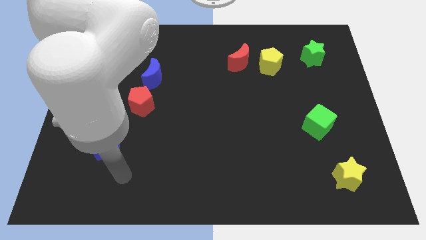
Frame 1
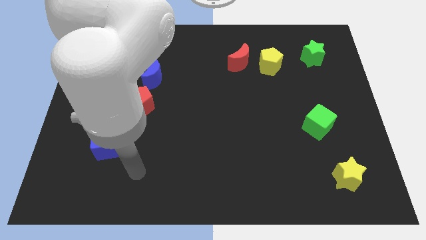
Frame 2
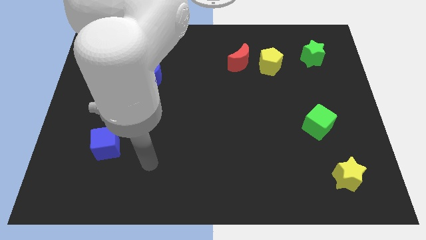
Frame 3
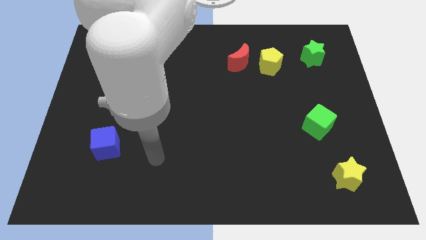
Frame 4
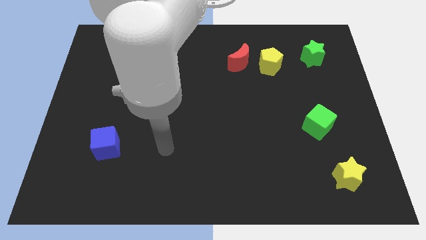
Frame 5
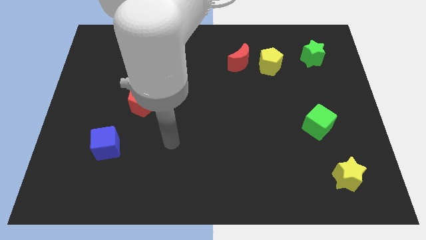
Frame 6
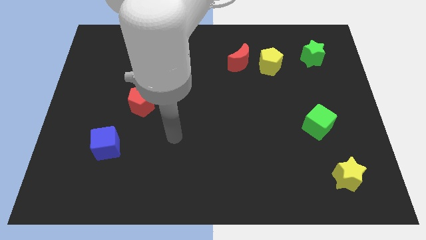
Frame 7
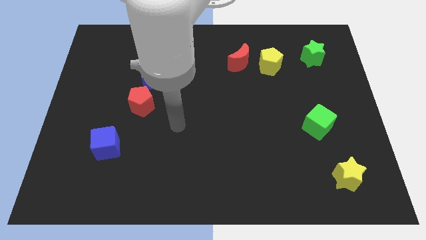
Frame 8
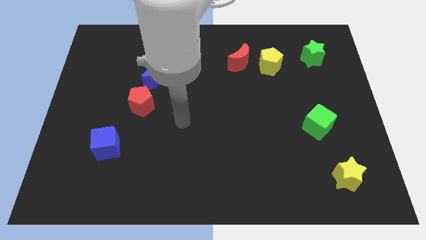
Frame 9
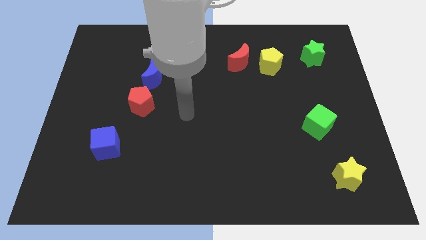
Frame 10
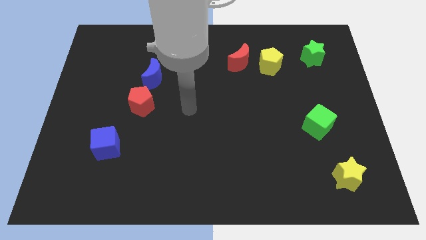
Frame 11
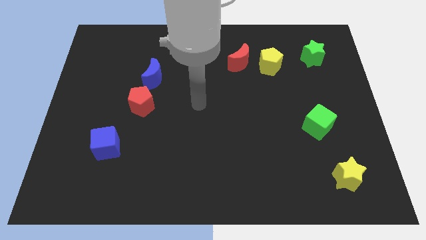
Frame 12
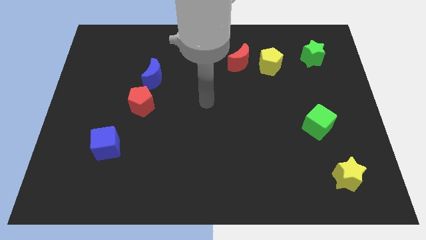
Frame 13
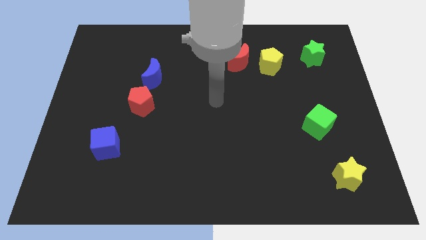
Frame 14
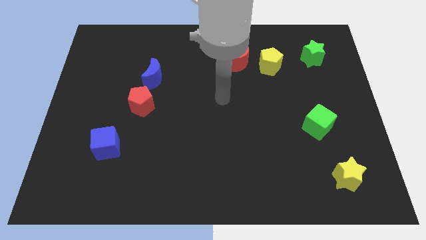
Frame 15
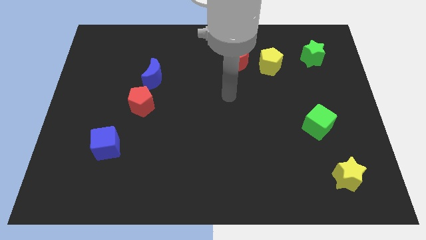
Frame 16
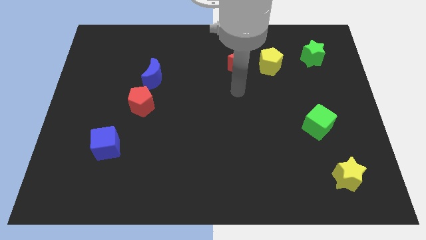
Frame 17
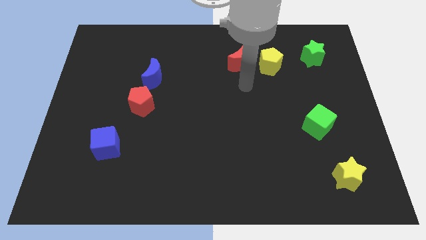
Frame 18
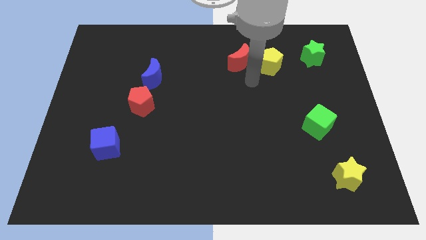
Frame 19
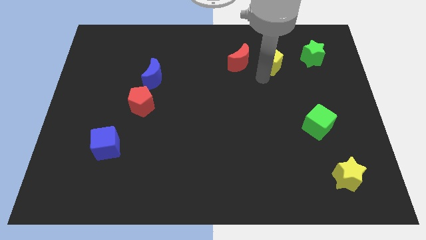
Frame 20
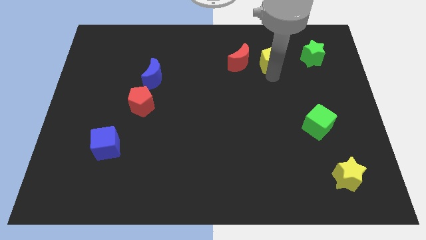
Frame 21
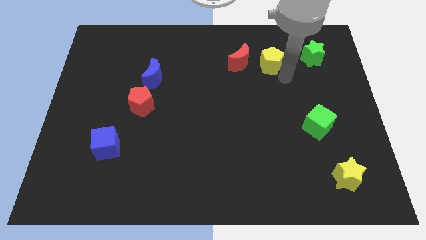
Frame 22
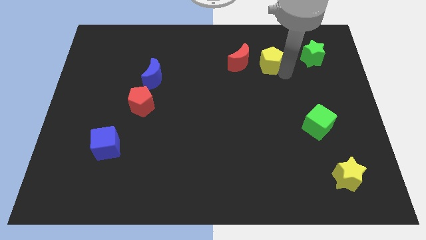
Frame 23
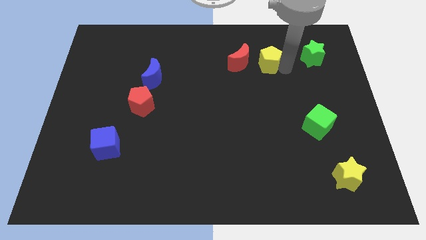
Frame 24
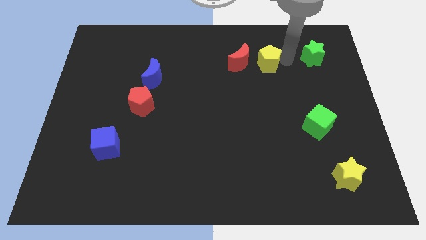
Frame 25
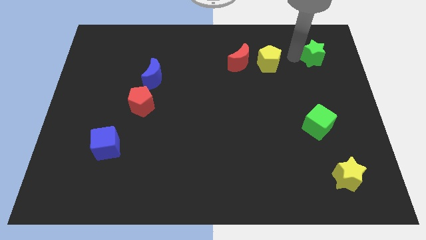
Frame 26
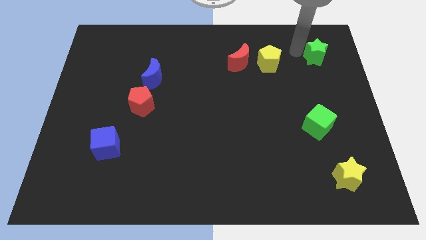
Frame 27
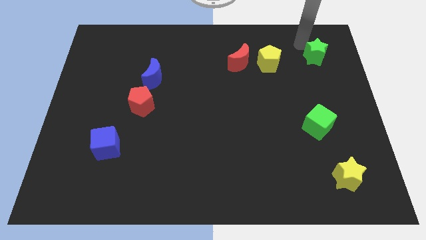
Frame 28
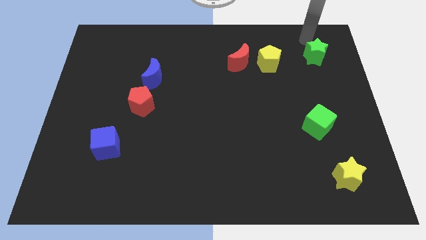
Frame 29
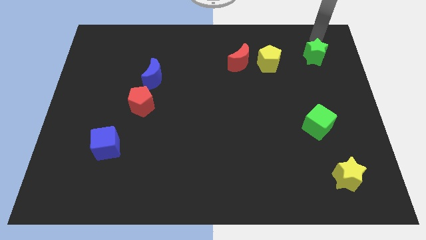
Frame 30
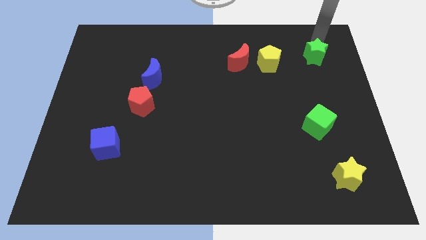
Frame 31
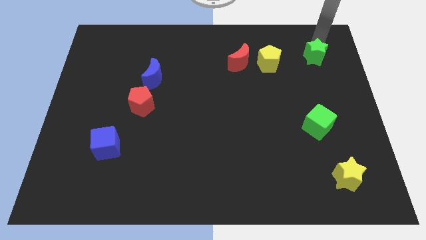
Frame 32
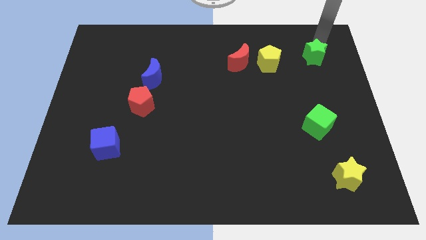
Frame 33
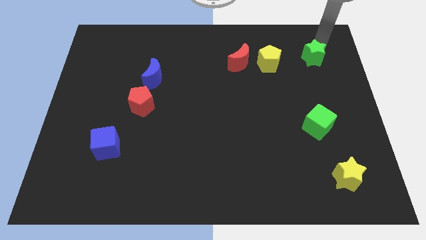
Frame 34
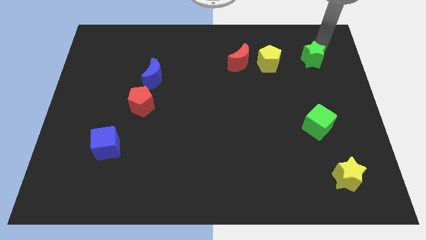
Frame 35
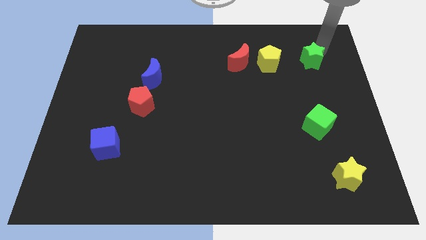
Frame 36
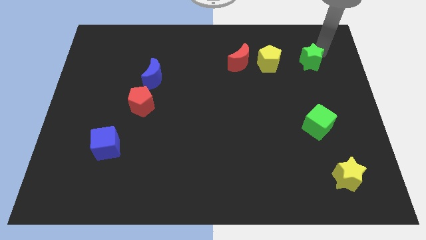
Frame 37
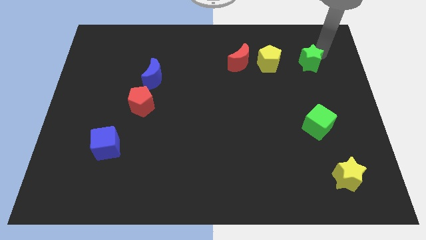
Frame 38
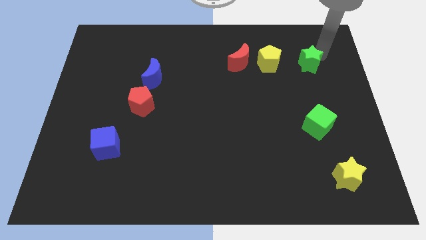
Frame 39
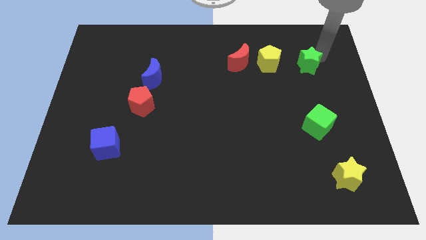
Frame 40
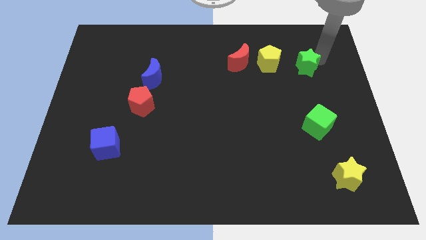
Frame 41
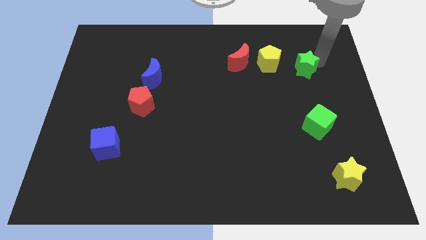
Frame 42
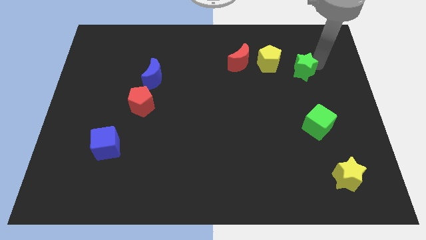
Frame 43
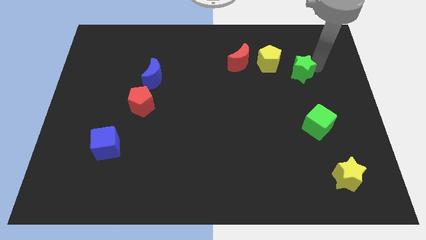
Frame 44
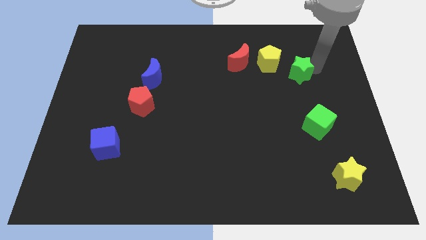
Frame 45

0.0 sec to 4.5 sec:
push the green star downwards and then left somewhat

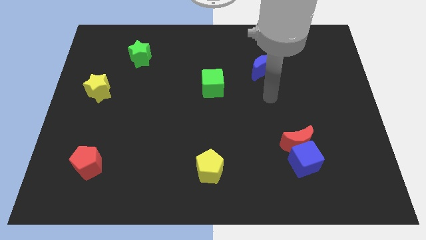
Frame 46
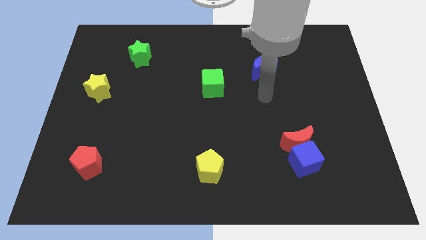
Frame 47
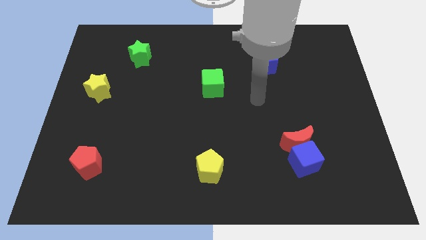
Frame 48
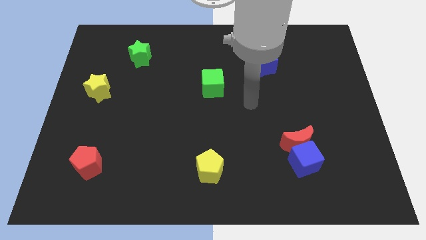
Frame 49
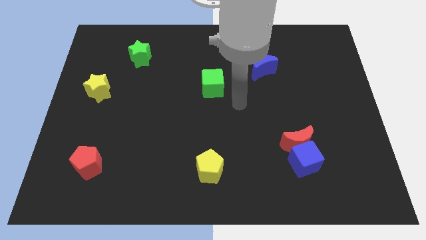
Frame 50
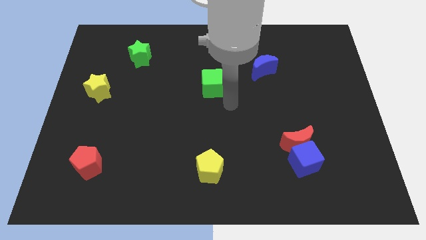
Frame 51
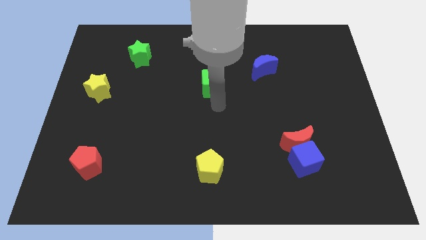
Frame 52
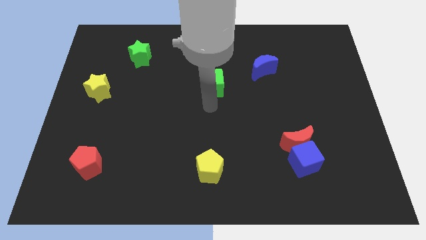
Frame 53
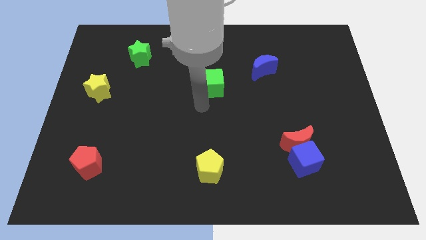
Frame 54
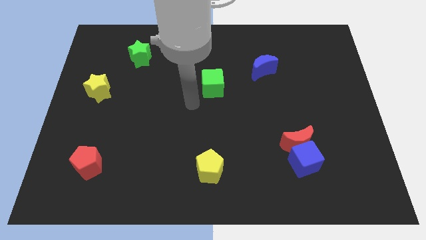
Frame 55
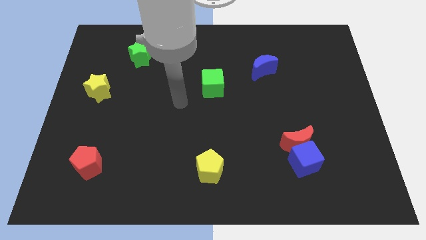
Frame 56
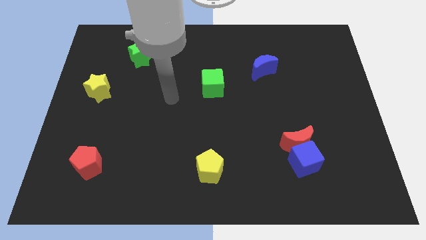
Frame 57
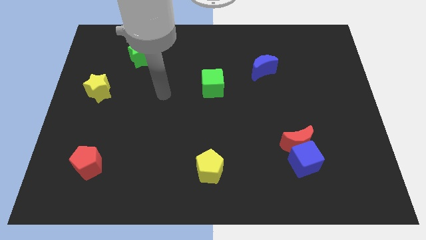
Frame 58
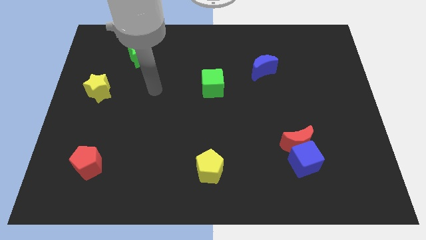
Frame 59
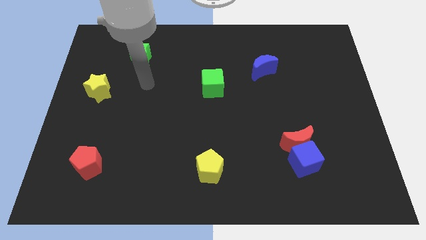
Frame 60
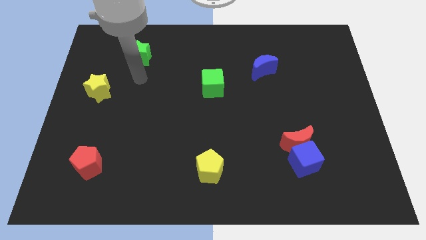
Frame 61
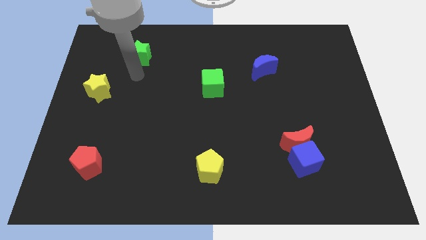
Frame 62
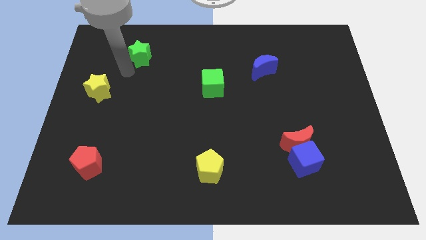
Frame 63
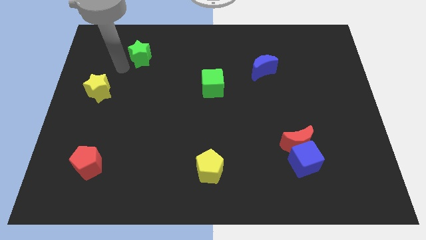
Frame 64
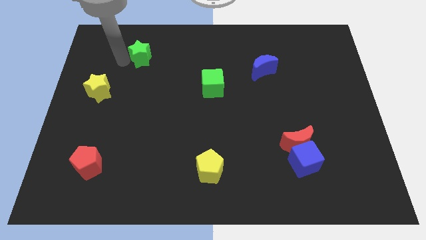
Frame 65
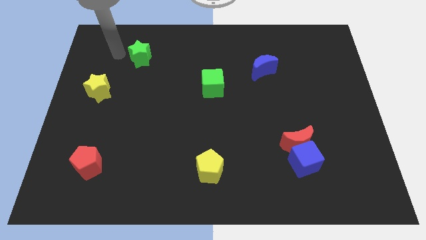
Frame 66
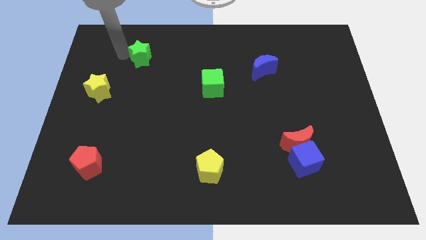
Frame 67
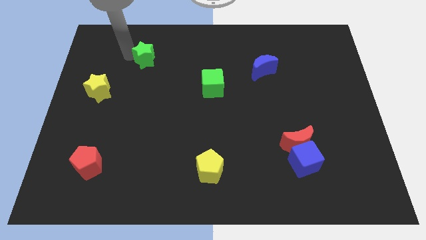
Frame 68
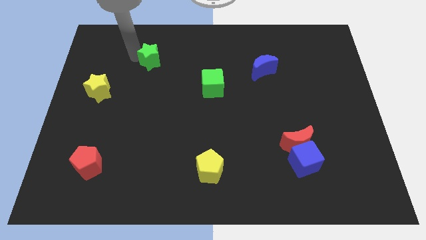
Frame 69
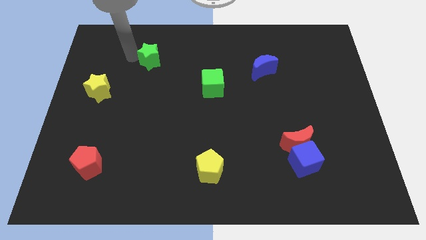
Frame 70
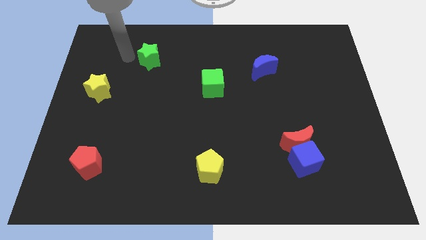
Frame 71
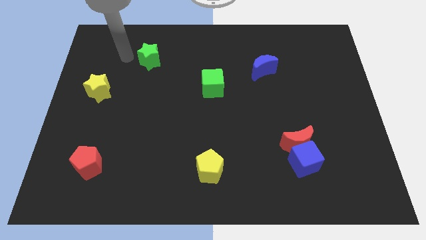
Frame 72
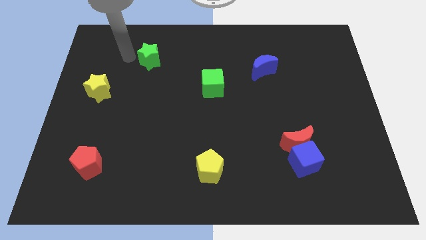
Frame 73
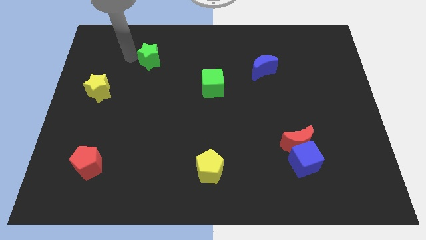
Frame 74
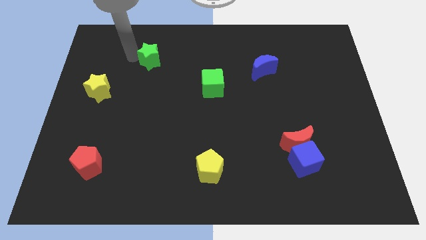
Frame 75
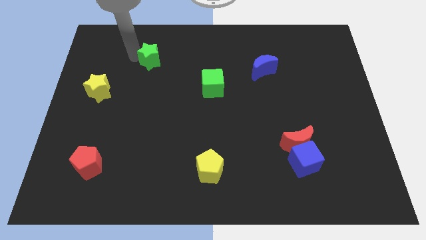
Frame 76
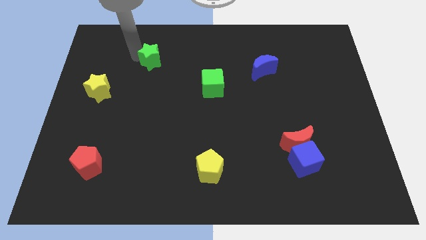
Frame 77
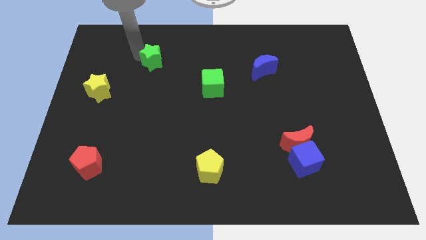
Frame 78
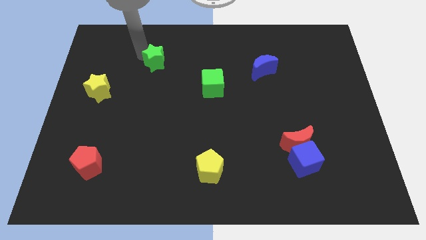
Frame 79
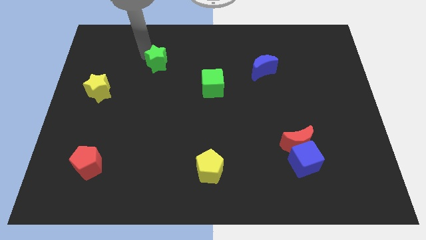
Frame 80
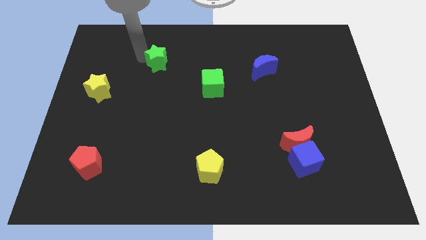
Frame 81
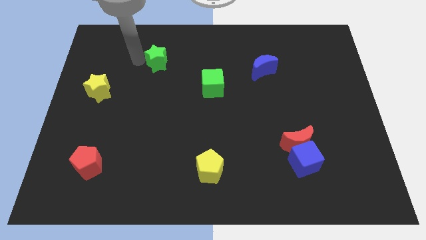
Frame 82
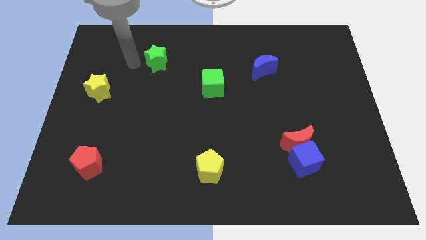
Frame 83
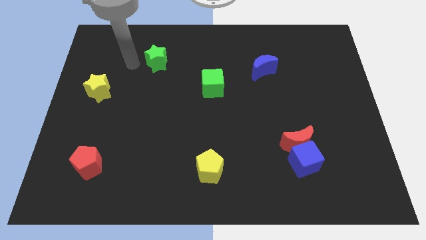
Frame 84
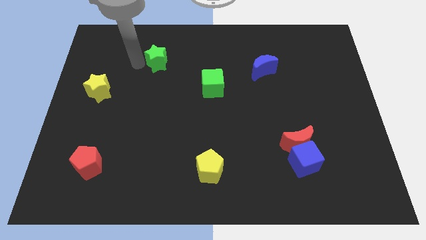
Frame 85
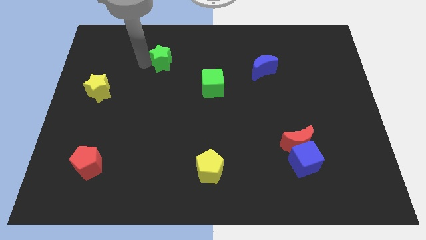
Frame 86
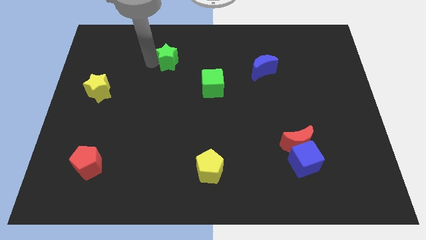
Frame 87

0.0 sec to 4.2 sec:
push the green star a little bit to the right
